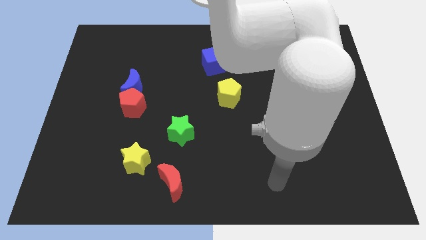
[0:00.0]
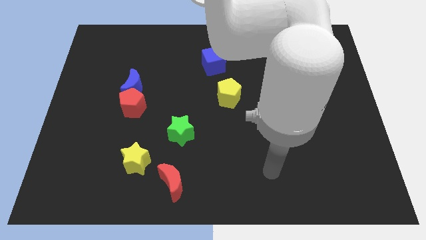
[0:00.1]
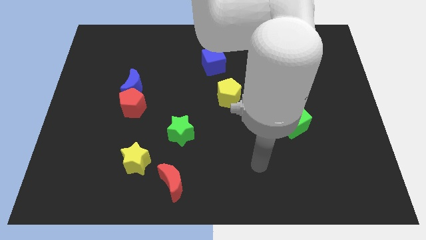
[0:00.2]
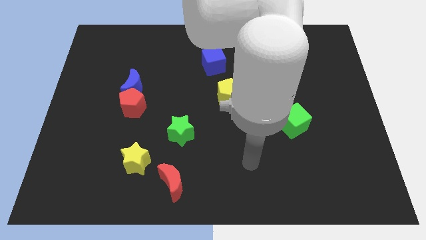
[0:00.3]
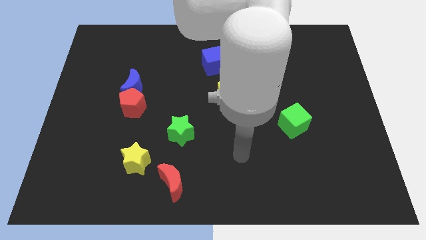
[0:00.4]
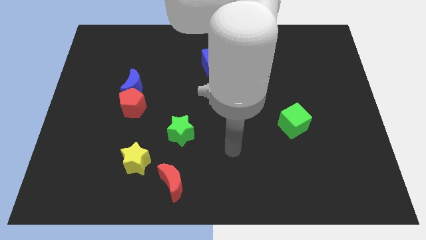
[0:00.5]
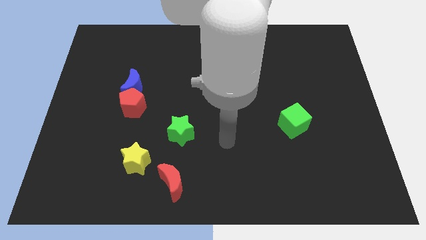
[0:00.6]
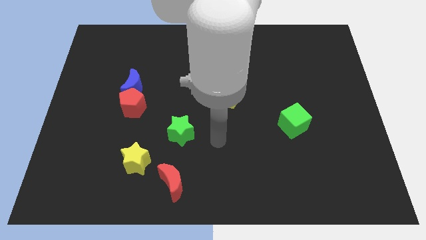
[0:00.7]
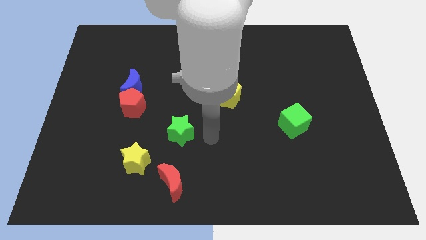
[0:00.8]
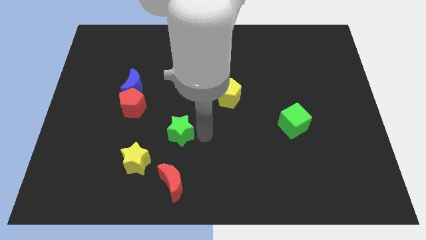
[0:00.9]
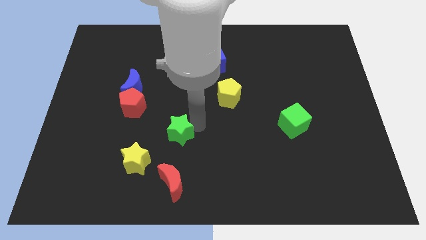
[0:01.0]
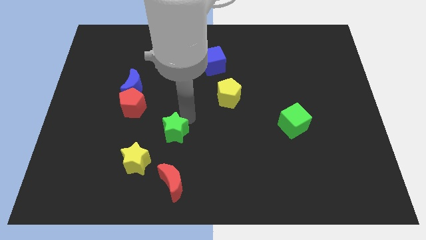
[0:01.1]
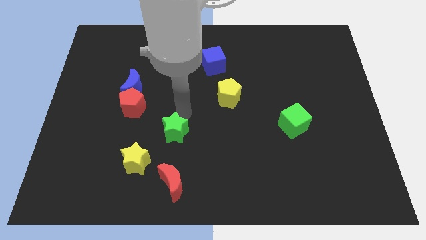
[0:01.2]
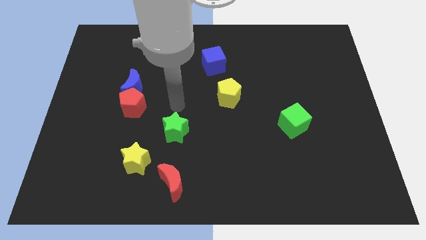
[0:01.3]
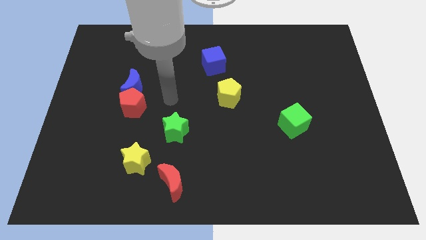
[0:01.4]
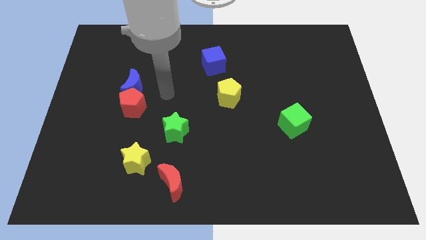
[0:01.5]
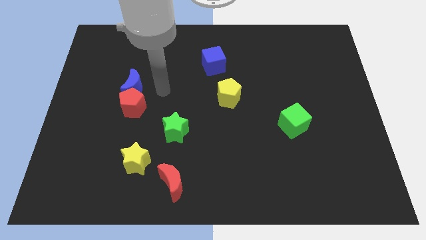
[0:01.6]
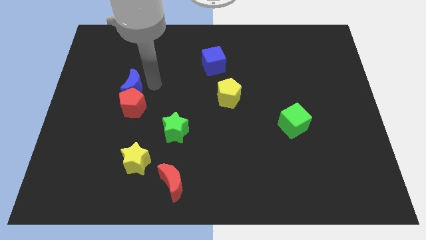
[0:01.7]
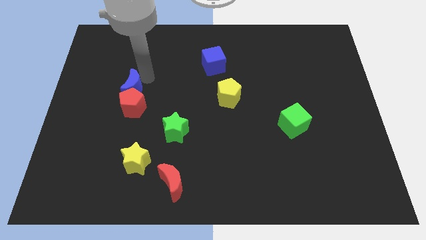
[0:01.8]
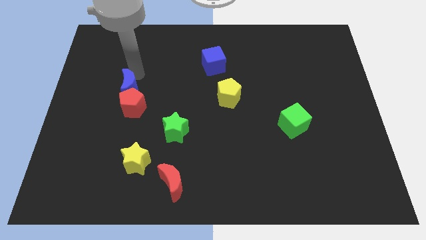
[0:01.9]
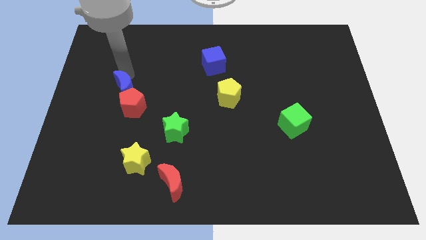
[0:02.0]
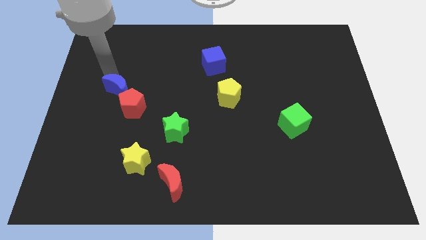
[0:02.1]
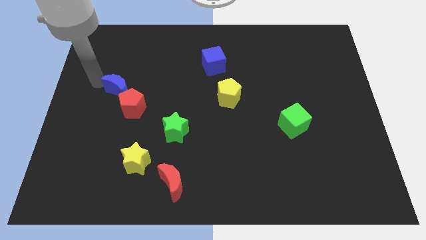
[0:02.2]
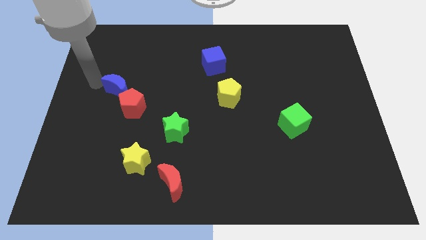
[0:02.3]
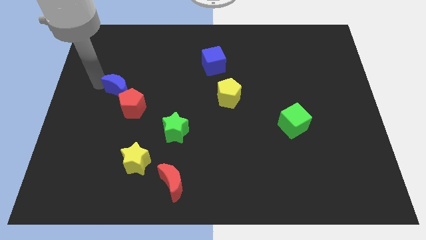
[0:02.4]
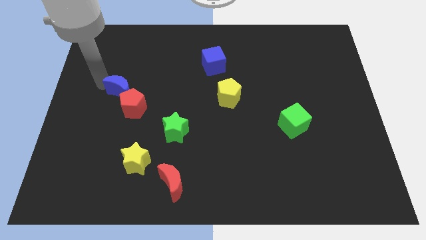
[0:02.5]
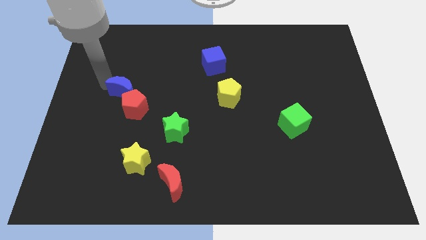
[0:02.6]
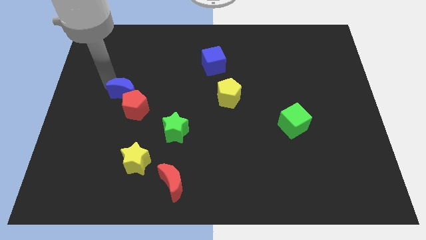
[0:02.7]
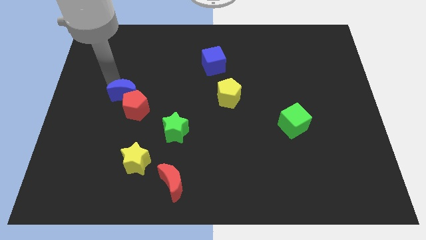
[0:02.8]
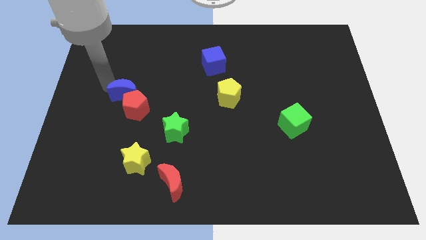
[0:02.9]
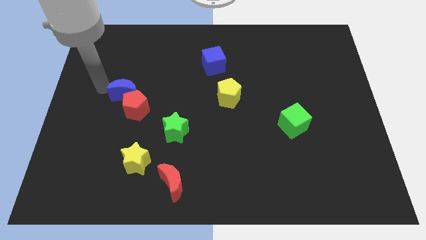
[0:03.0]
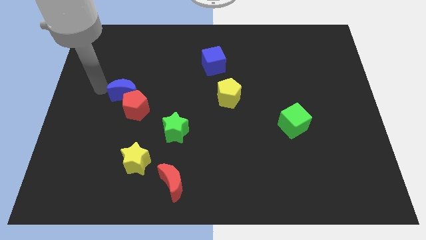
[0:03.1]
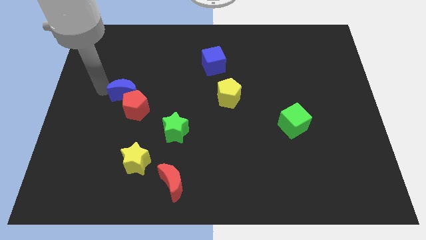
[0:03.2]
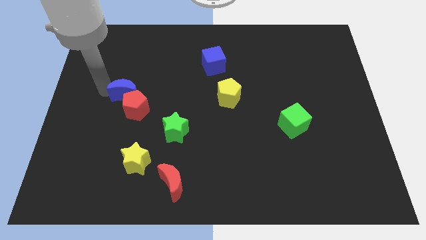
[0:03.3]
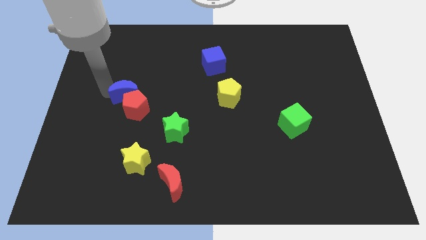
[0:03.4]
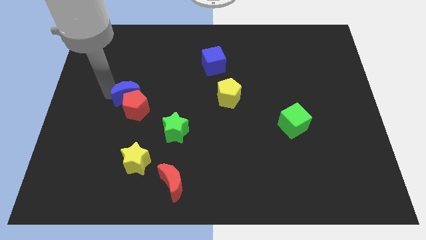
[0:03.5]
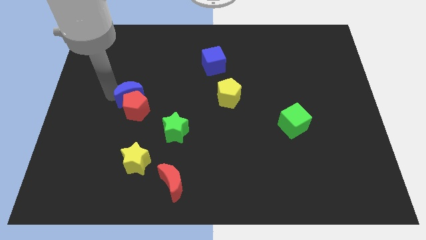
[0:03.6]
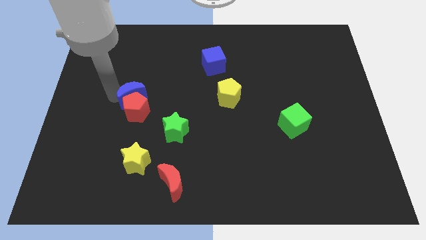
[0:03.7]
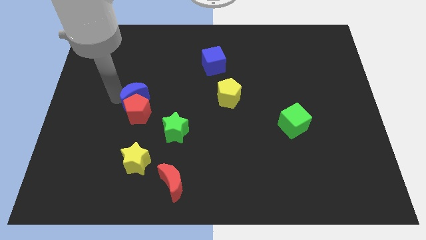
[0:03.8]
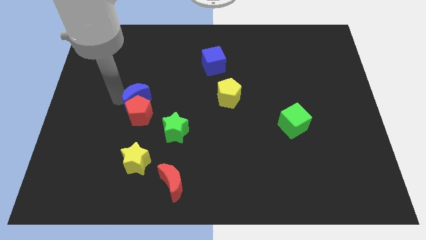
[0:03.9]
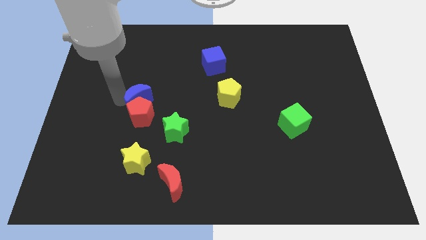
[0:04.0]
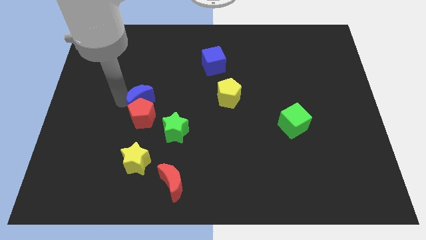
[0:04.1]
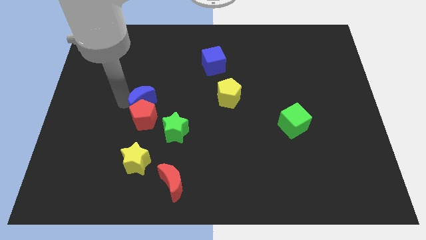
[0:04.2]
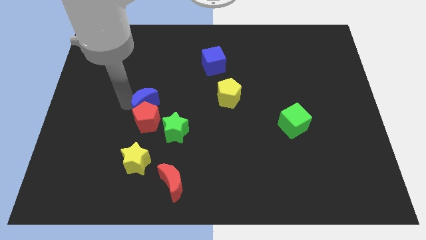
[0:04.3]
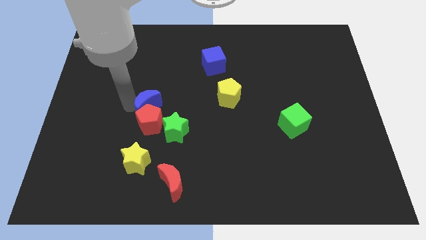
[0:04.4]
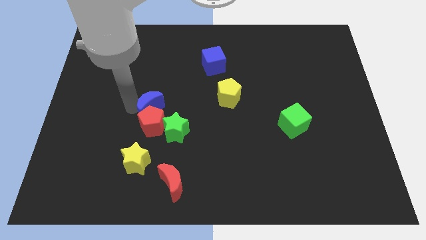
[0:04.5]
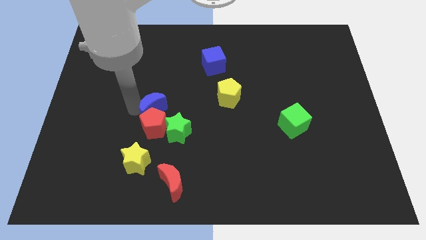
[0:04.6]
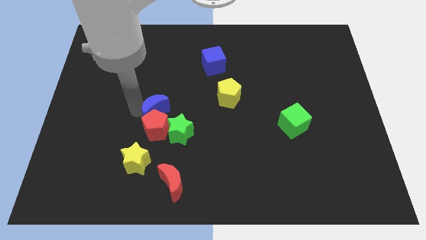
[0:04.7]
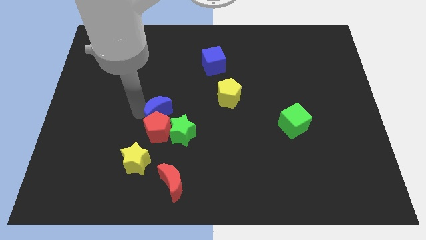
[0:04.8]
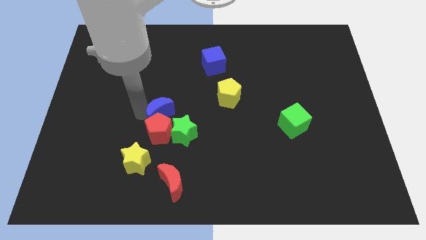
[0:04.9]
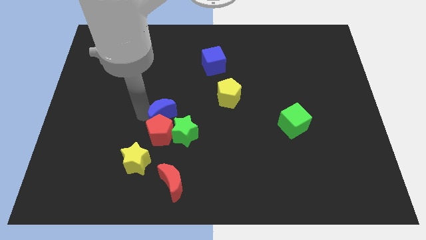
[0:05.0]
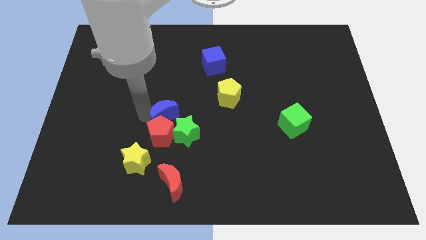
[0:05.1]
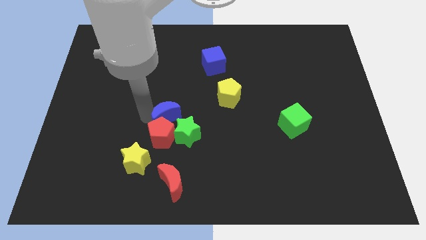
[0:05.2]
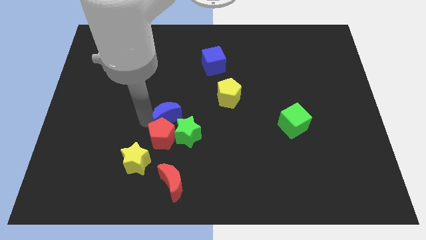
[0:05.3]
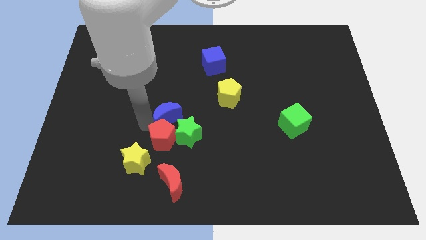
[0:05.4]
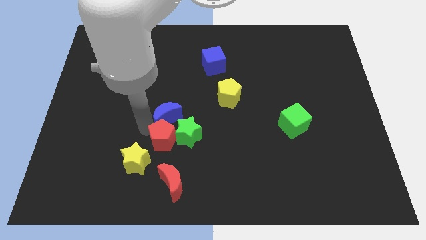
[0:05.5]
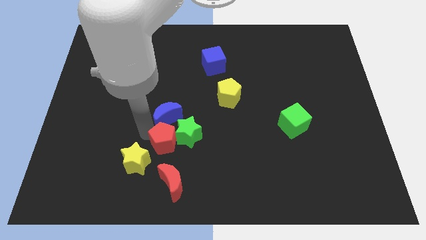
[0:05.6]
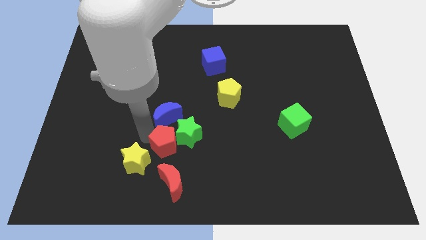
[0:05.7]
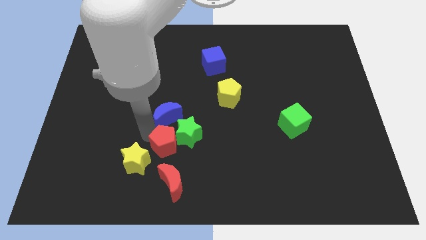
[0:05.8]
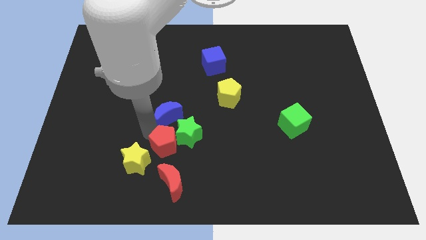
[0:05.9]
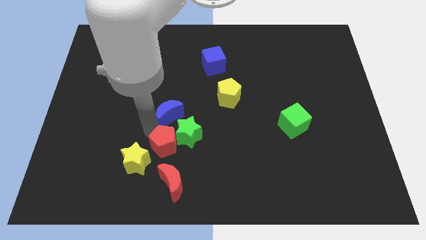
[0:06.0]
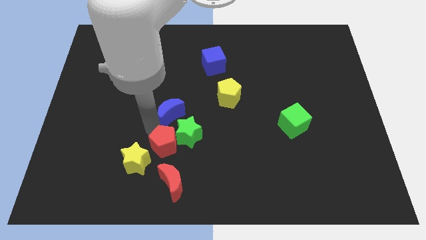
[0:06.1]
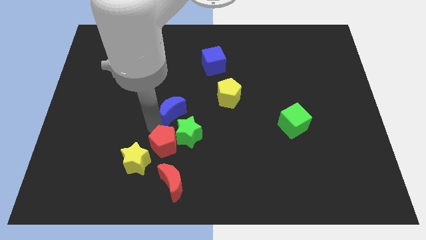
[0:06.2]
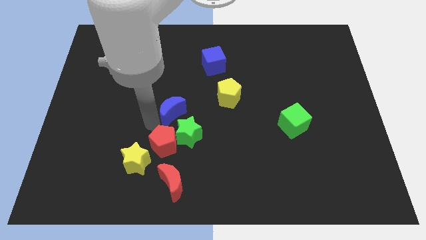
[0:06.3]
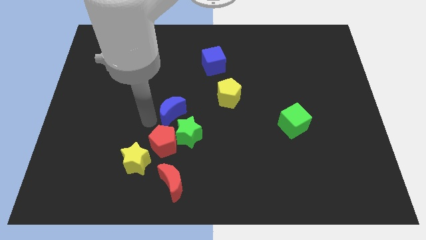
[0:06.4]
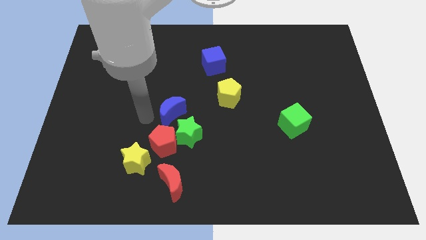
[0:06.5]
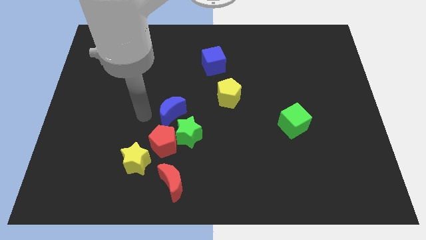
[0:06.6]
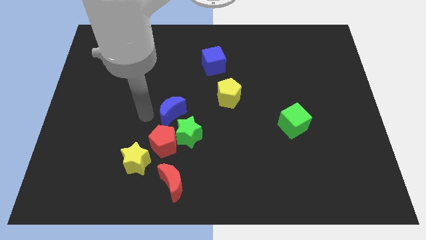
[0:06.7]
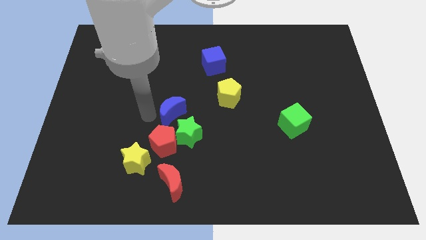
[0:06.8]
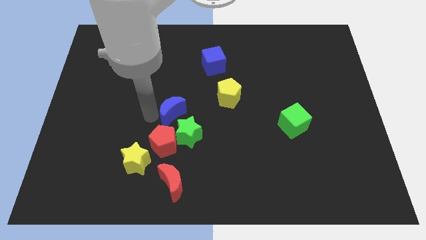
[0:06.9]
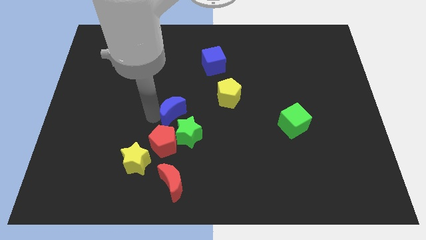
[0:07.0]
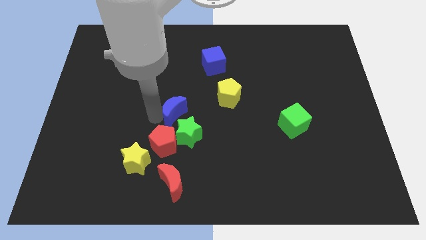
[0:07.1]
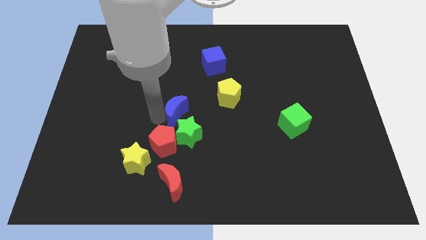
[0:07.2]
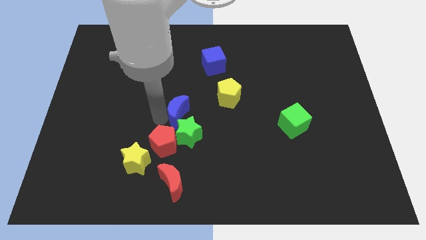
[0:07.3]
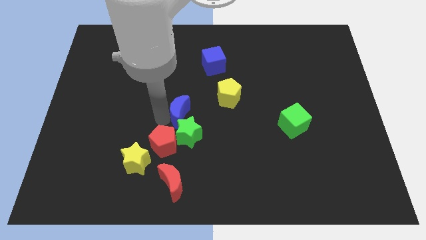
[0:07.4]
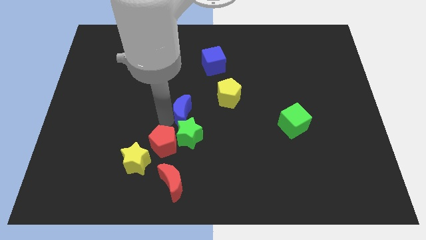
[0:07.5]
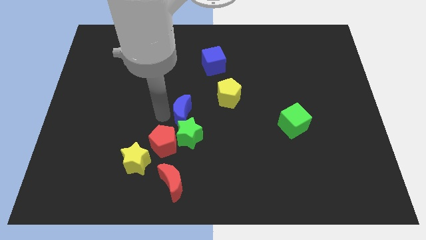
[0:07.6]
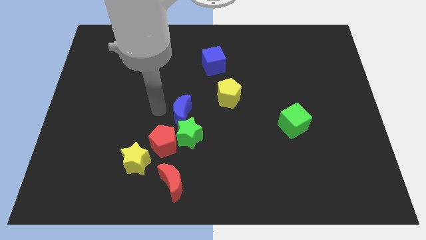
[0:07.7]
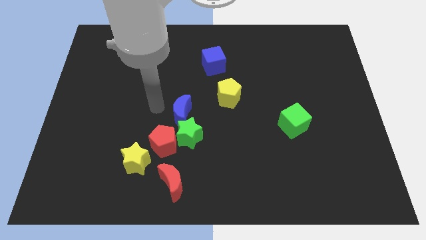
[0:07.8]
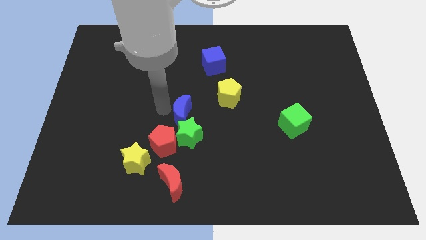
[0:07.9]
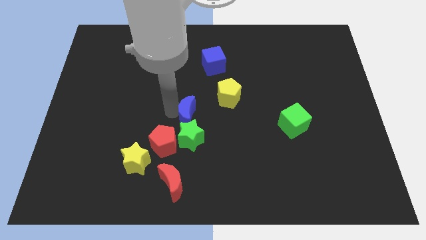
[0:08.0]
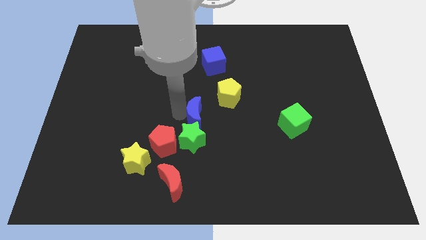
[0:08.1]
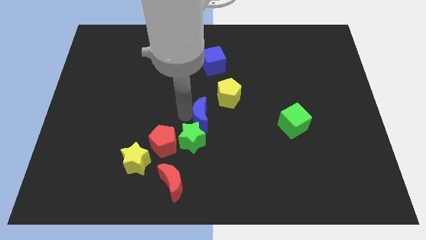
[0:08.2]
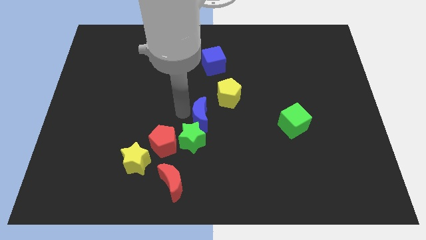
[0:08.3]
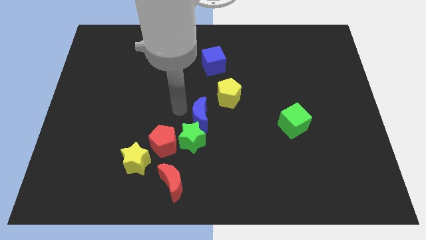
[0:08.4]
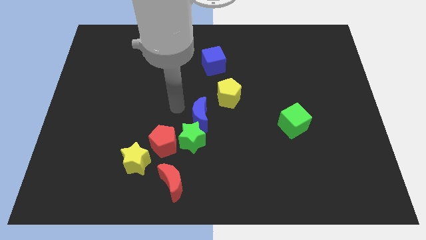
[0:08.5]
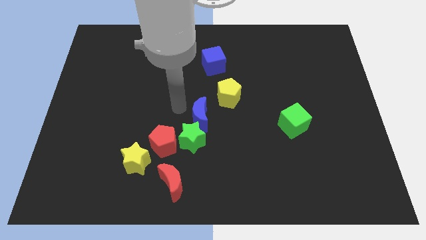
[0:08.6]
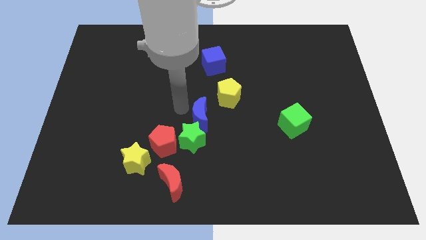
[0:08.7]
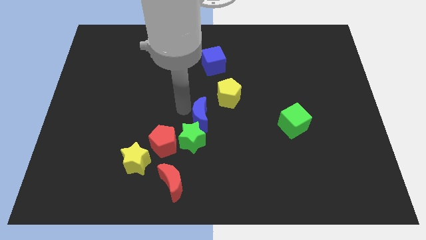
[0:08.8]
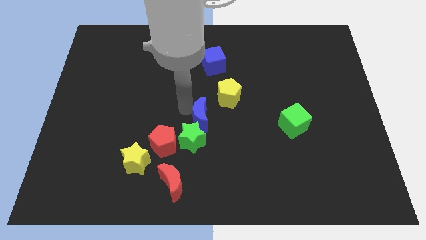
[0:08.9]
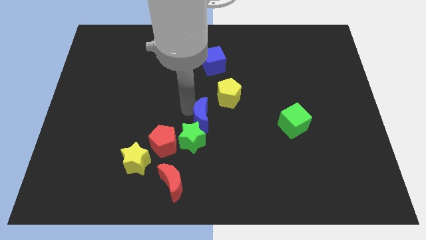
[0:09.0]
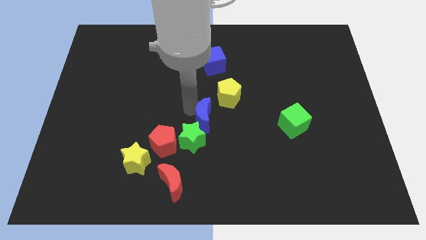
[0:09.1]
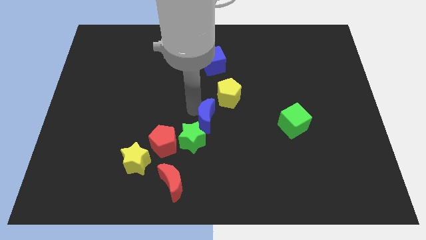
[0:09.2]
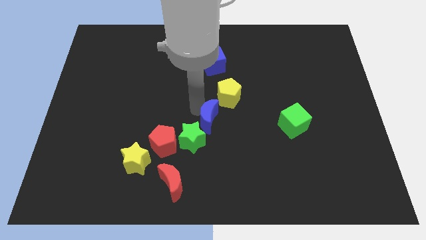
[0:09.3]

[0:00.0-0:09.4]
push the blue moon below the yellow pentagon
